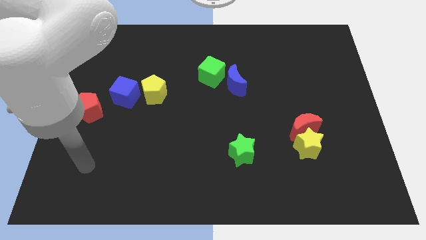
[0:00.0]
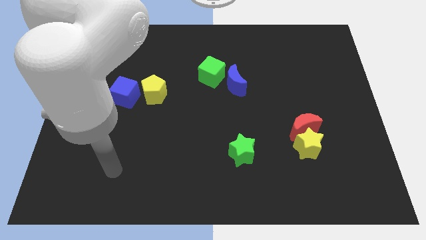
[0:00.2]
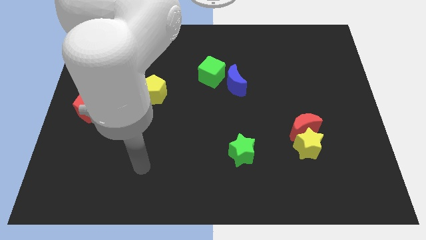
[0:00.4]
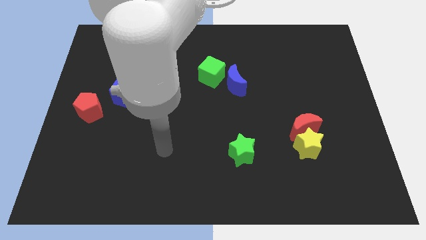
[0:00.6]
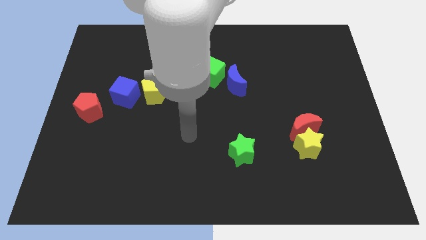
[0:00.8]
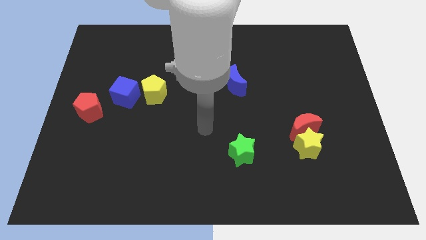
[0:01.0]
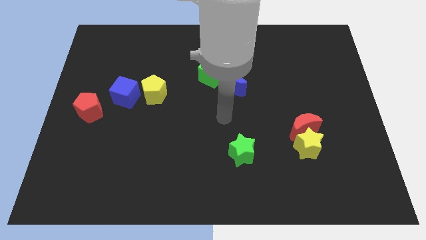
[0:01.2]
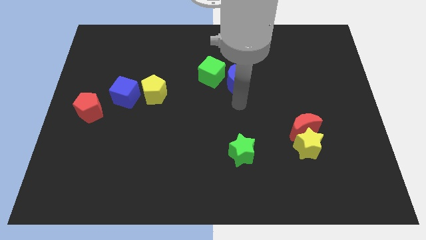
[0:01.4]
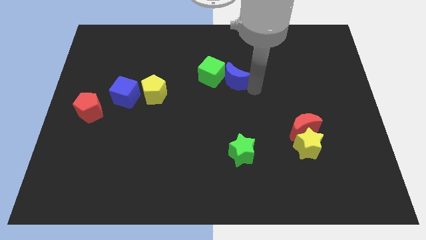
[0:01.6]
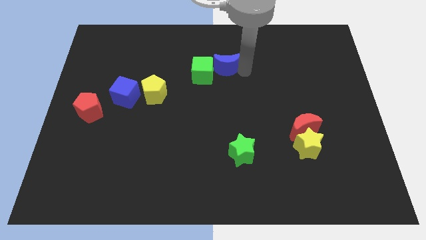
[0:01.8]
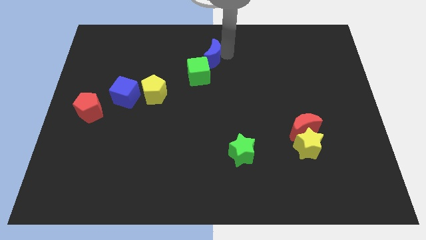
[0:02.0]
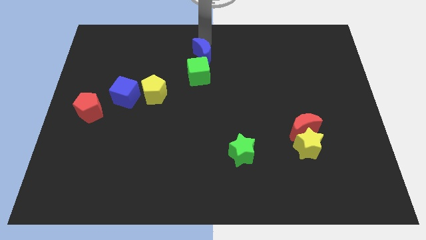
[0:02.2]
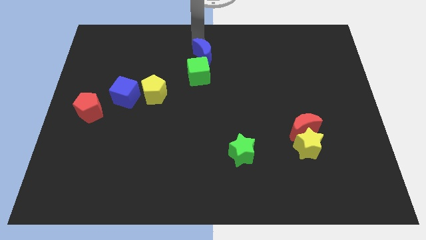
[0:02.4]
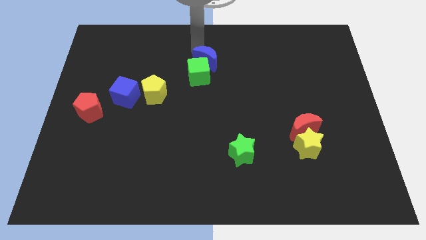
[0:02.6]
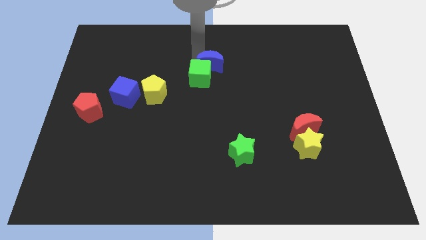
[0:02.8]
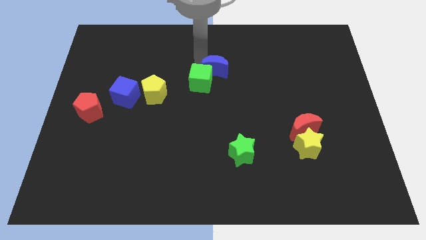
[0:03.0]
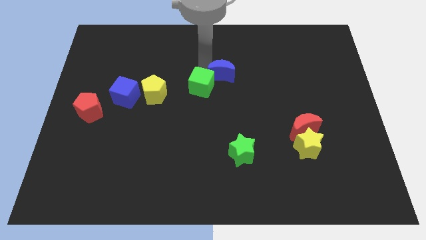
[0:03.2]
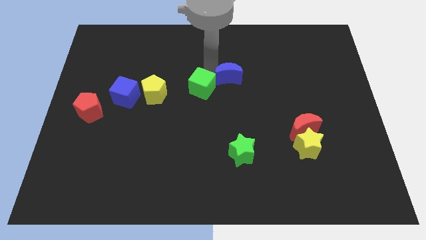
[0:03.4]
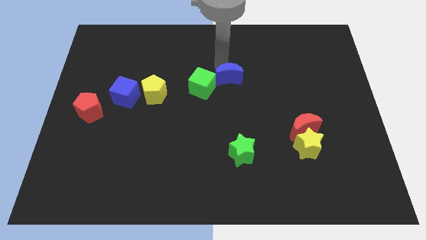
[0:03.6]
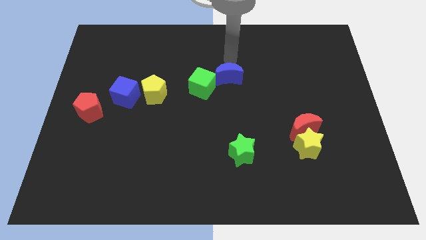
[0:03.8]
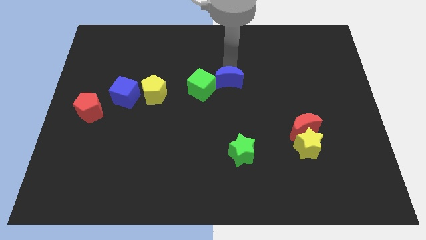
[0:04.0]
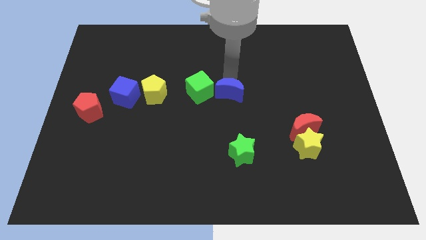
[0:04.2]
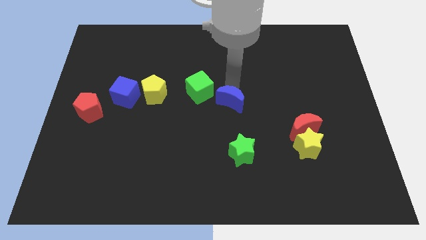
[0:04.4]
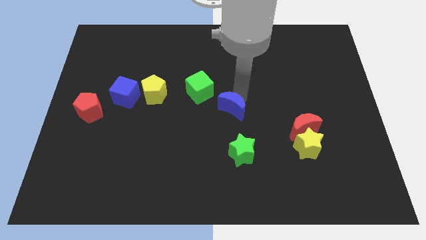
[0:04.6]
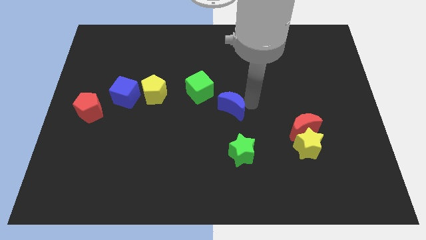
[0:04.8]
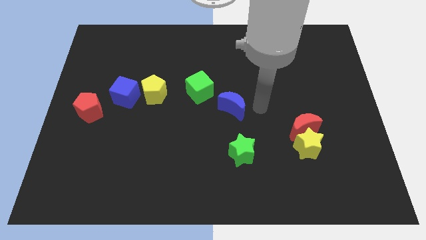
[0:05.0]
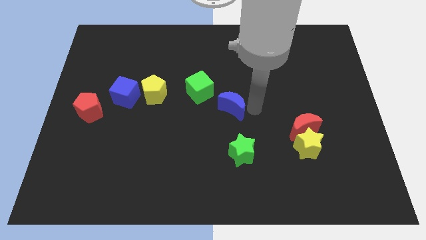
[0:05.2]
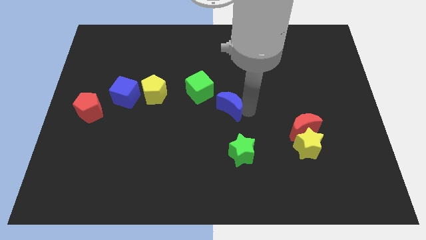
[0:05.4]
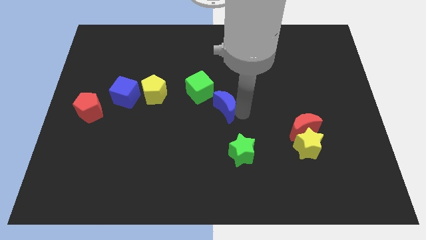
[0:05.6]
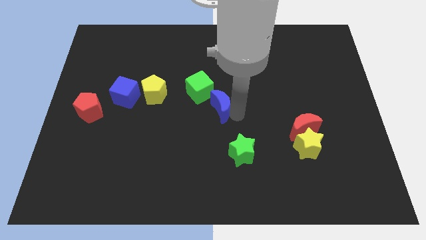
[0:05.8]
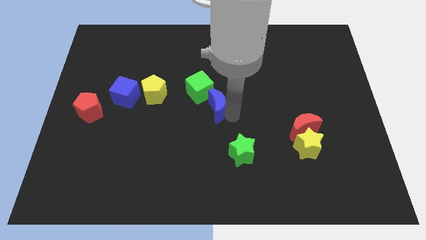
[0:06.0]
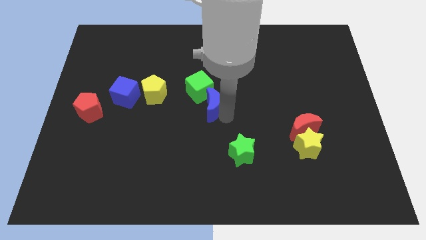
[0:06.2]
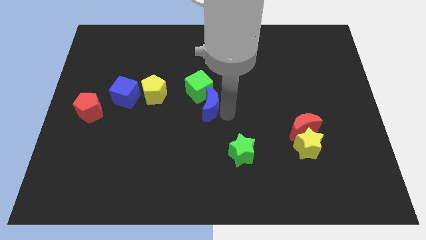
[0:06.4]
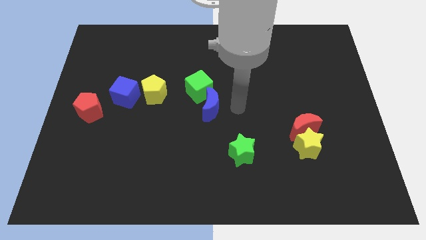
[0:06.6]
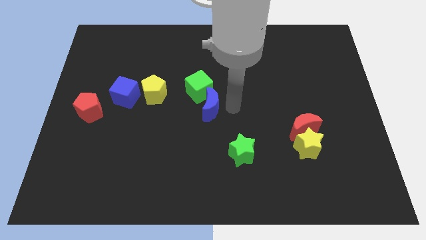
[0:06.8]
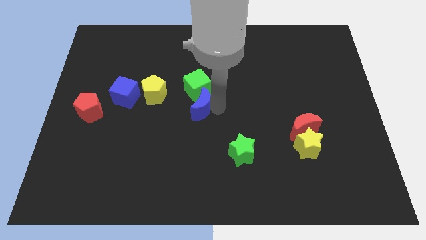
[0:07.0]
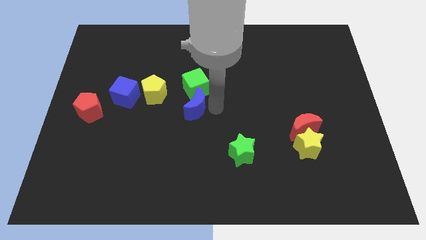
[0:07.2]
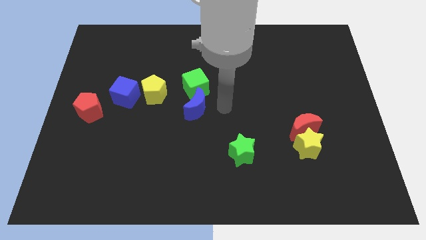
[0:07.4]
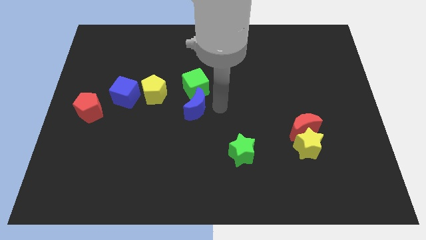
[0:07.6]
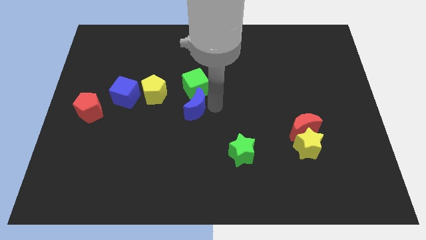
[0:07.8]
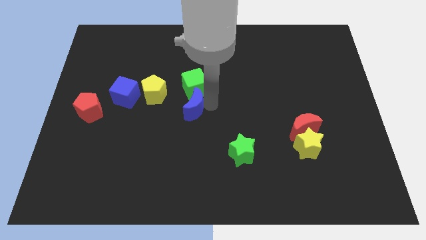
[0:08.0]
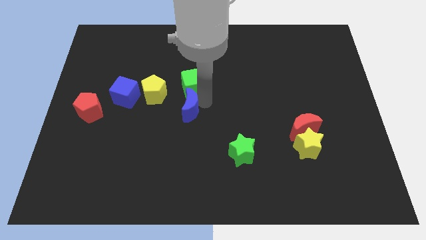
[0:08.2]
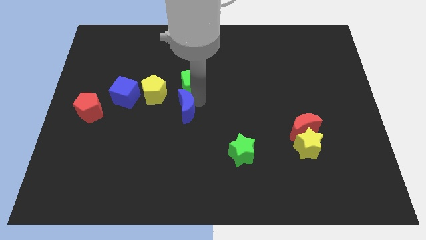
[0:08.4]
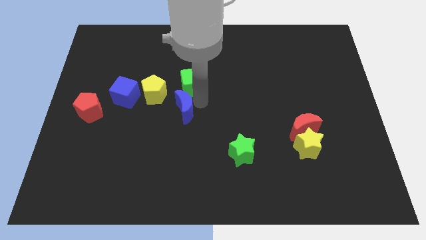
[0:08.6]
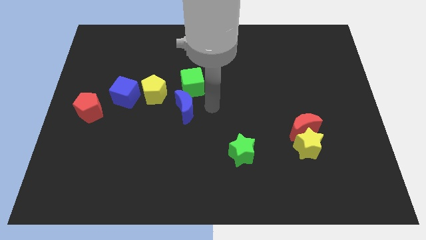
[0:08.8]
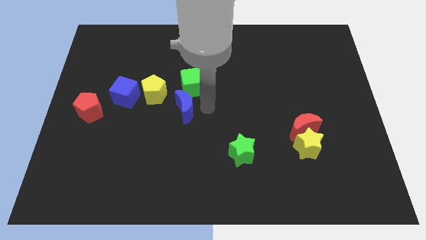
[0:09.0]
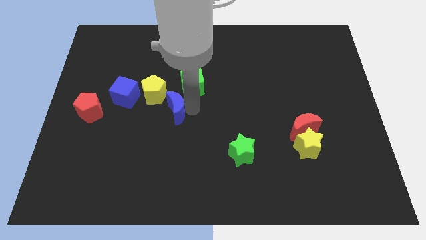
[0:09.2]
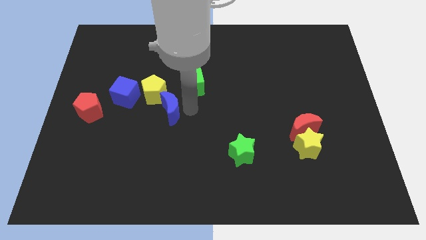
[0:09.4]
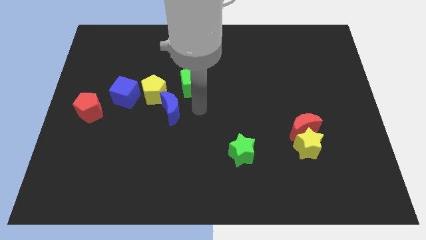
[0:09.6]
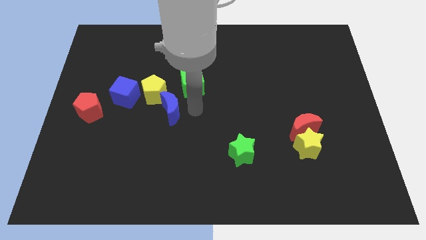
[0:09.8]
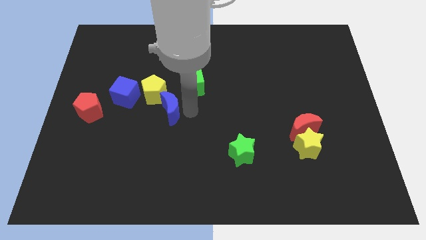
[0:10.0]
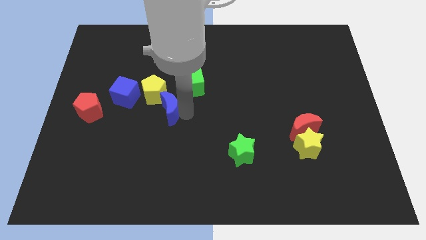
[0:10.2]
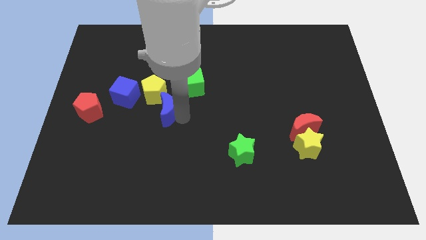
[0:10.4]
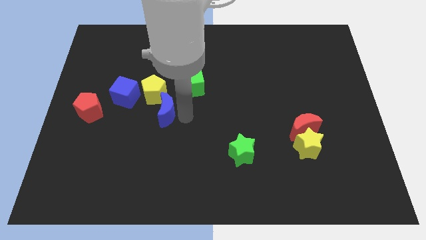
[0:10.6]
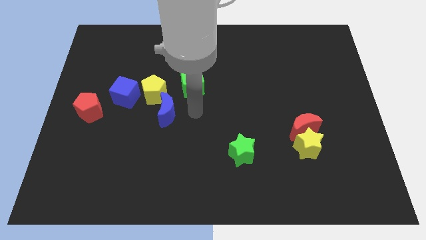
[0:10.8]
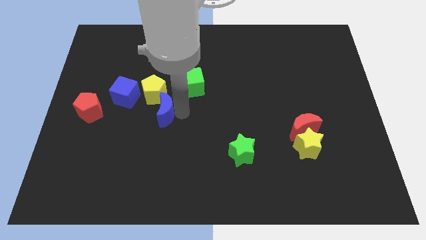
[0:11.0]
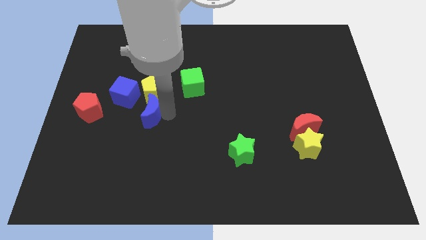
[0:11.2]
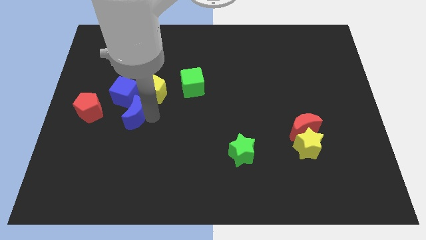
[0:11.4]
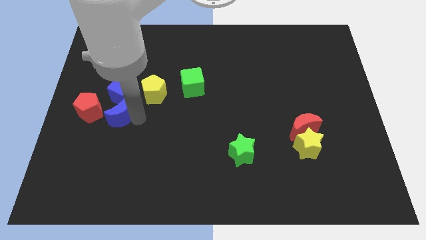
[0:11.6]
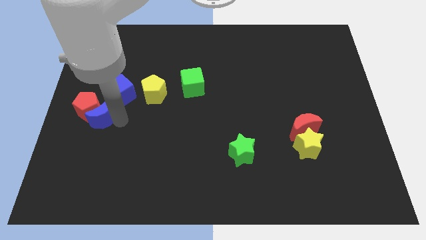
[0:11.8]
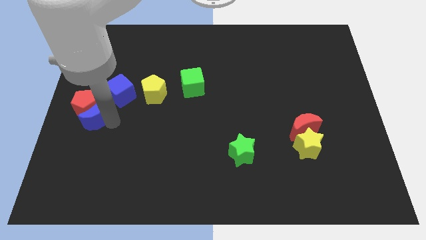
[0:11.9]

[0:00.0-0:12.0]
slide the blue moon to the left side of the board
